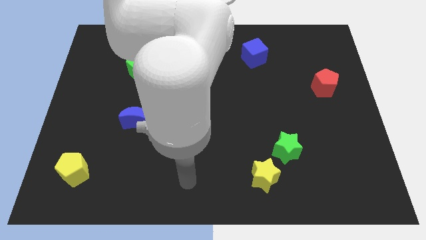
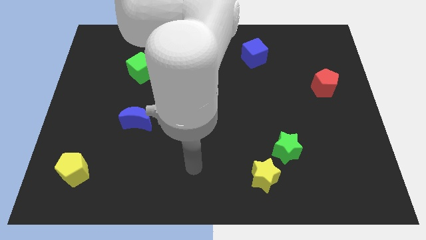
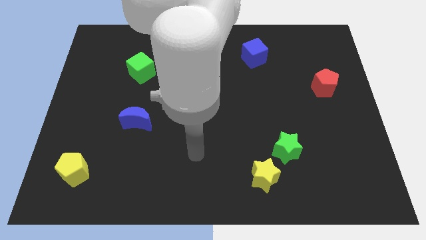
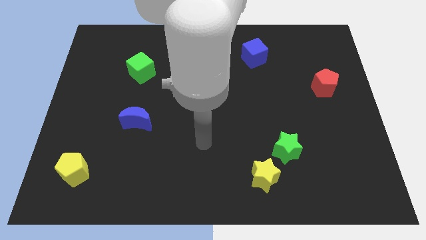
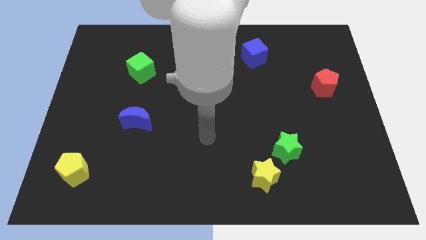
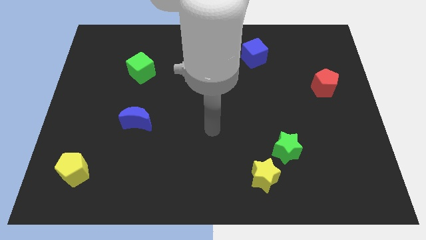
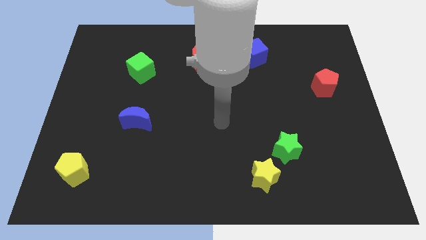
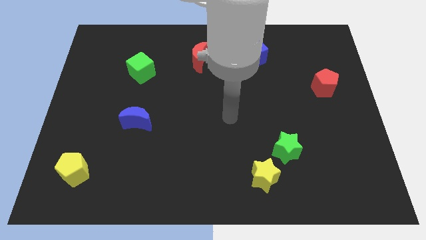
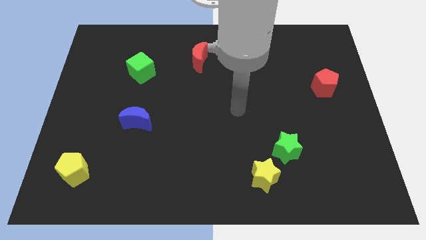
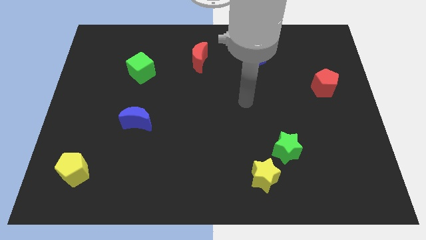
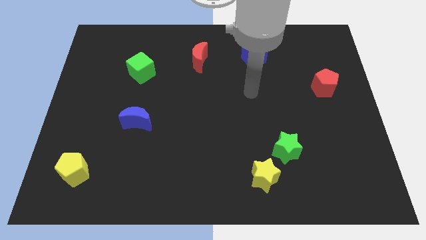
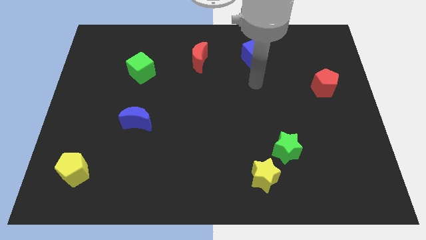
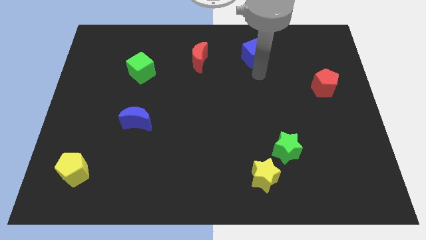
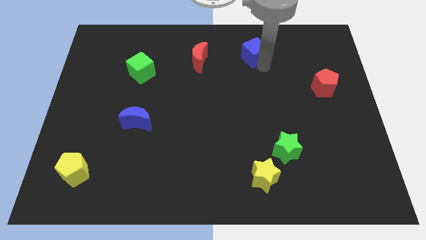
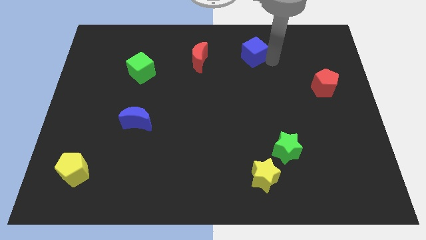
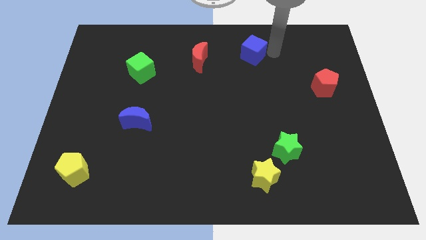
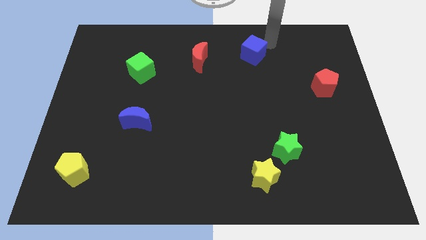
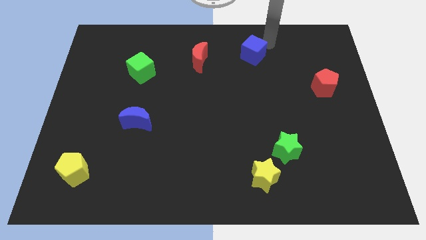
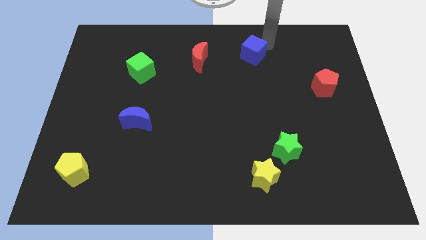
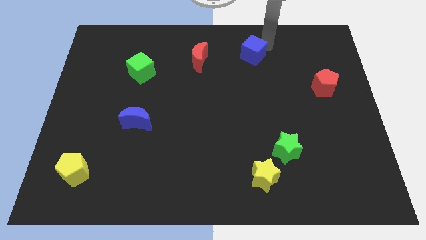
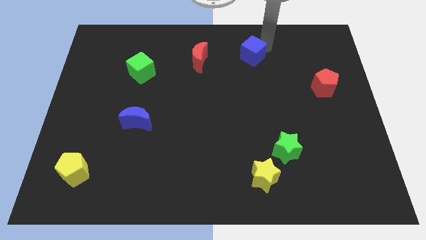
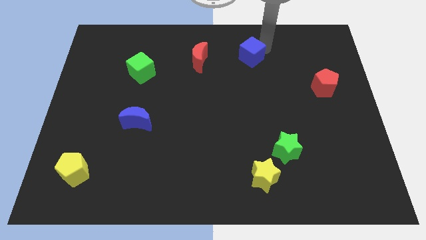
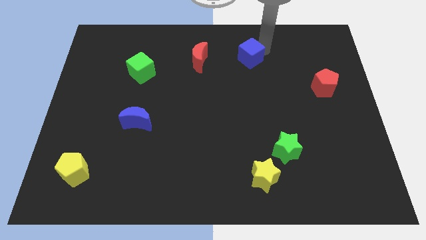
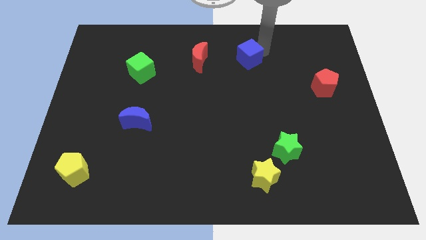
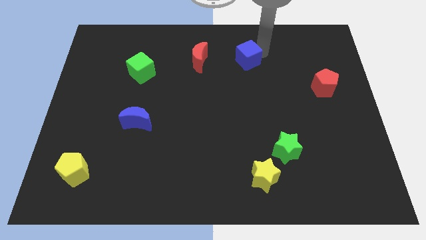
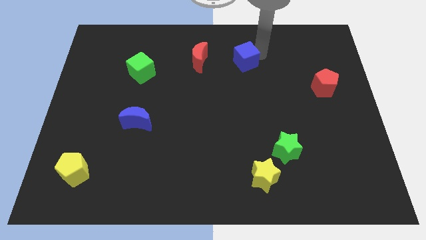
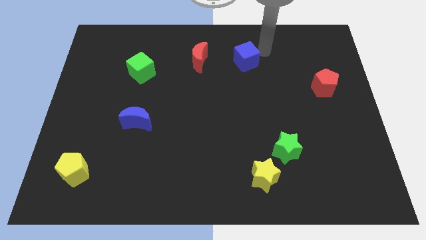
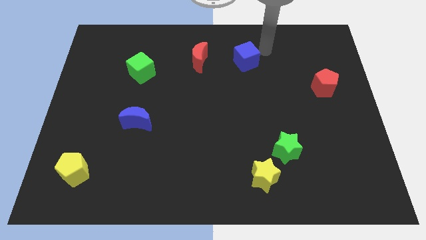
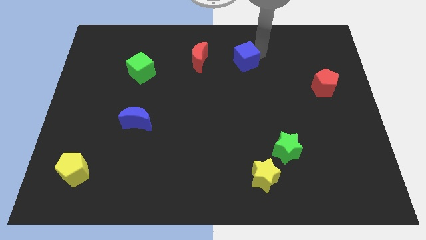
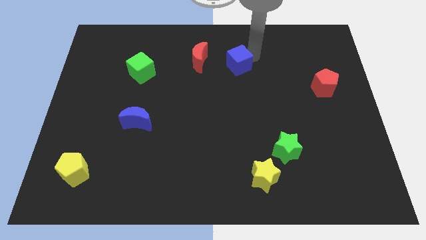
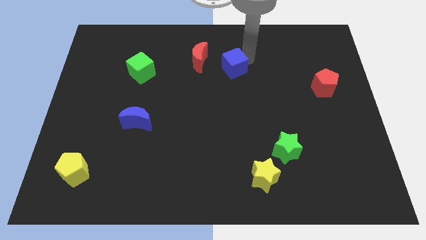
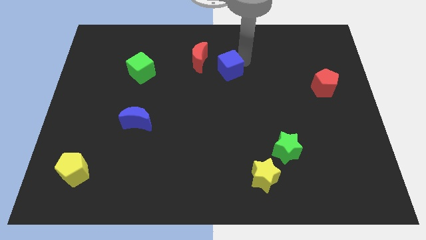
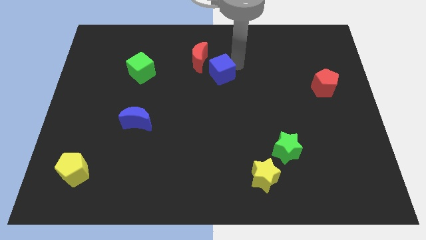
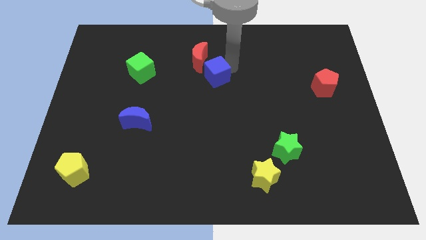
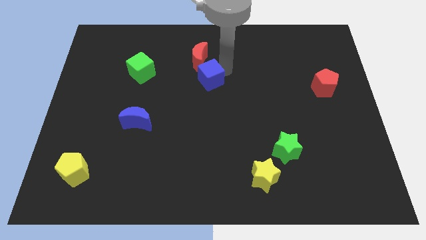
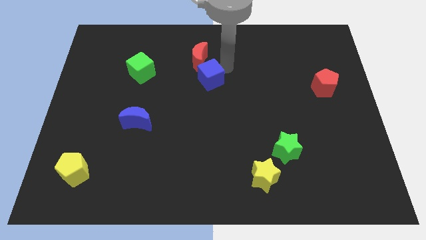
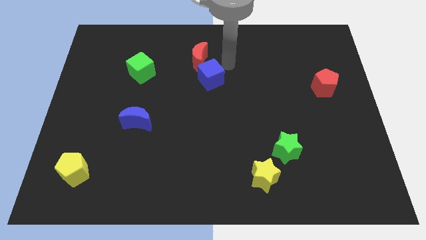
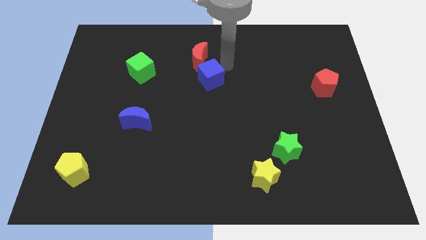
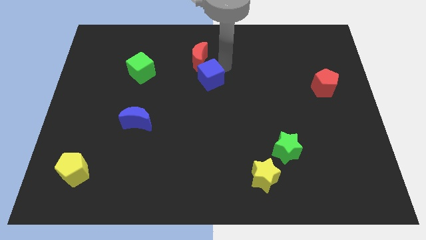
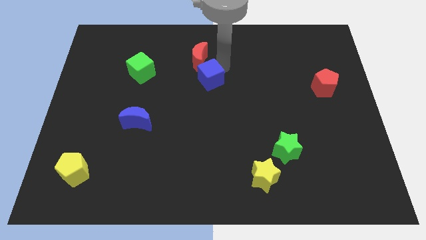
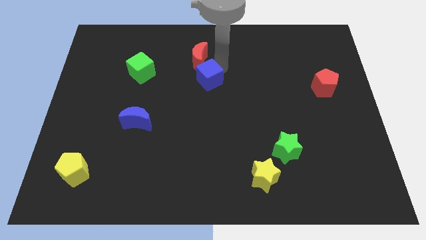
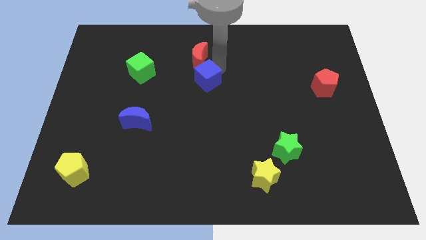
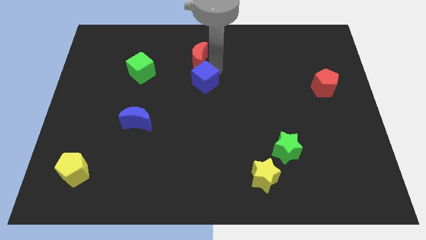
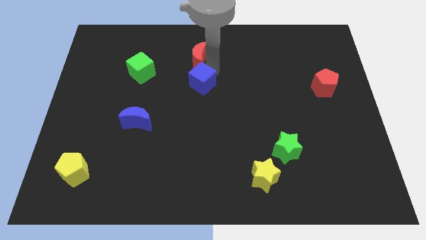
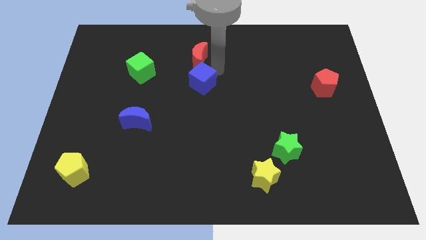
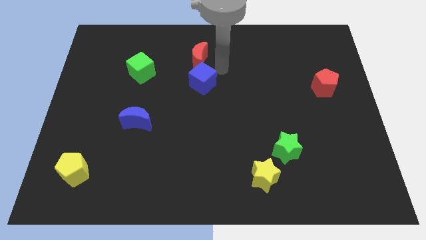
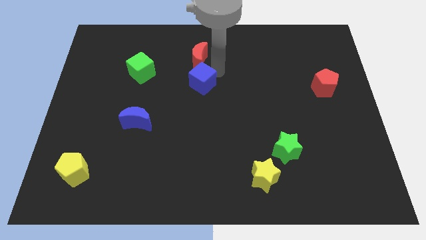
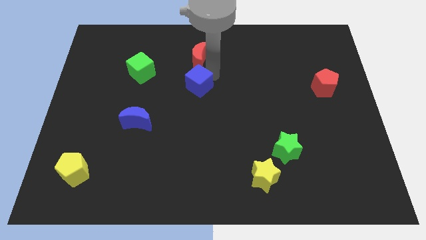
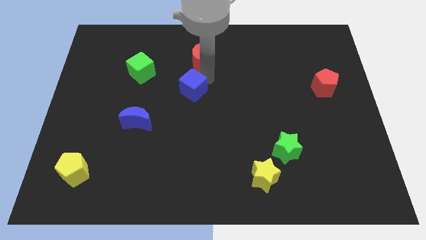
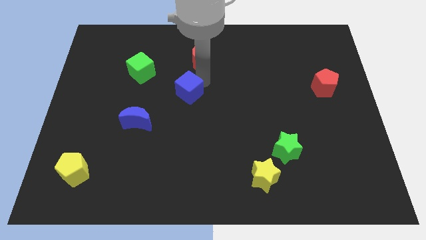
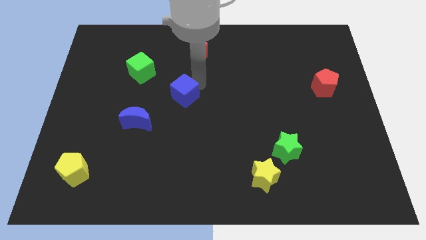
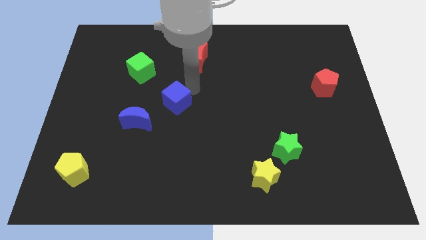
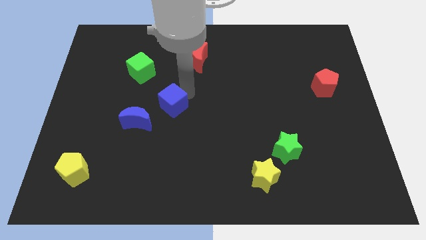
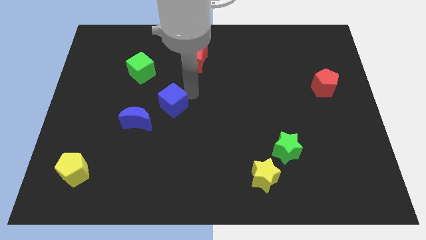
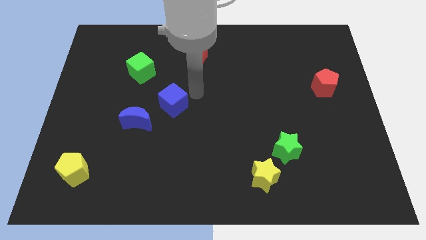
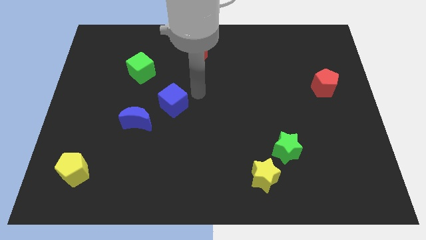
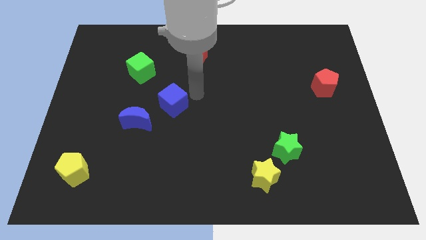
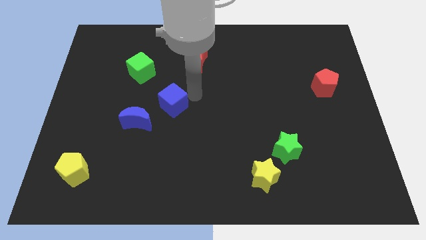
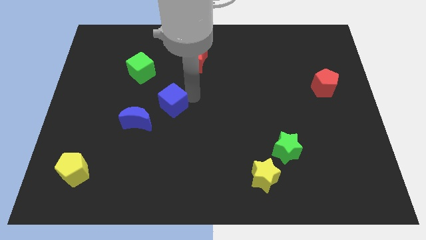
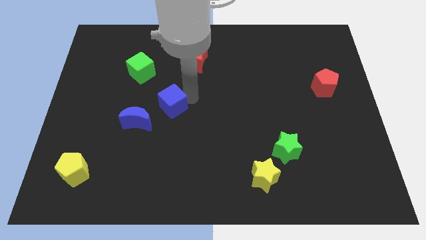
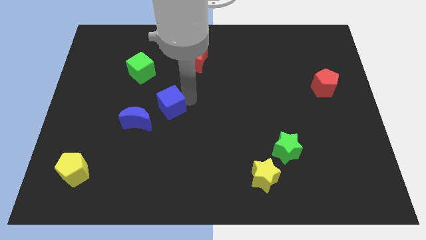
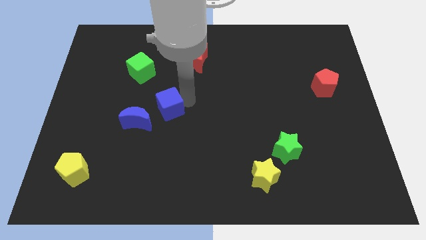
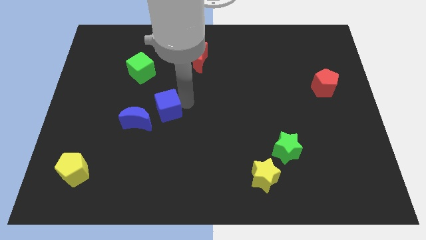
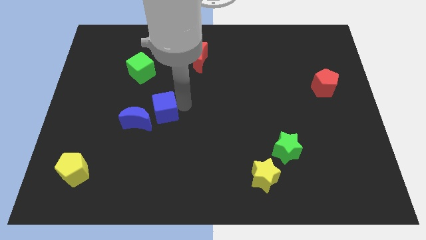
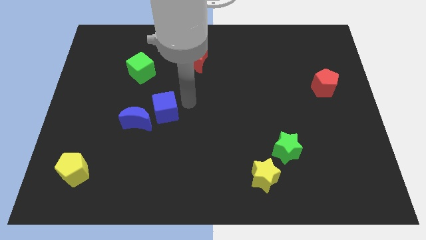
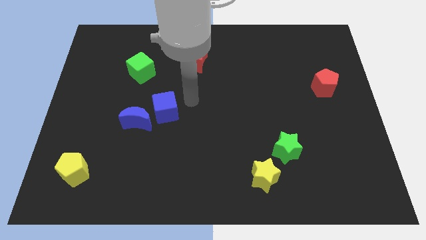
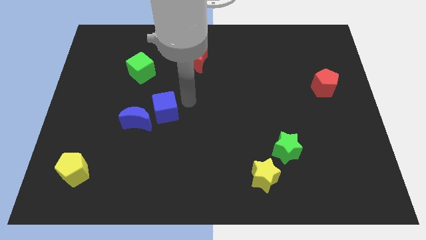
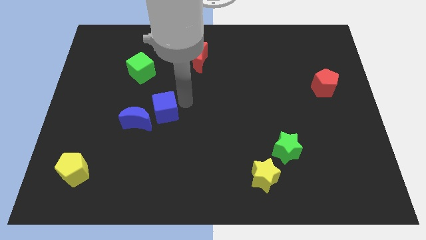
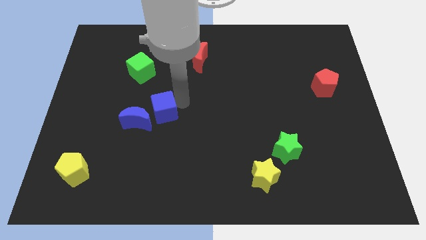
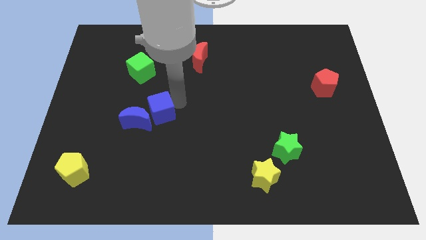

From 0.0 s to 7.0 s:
push the blue cube next to the blue moon
